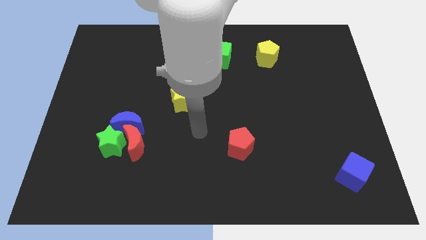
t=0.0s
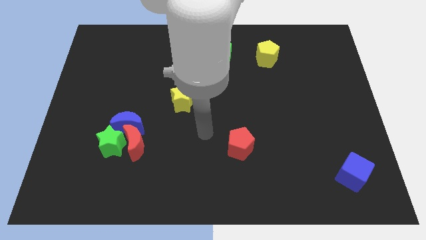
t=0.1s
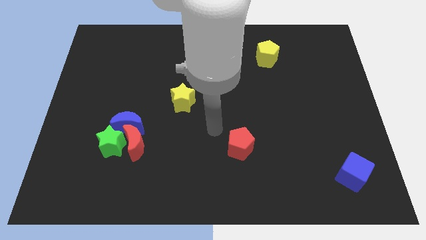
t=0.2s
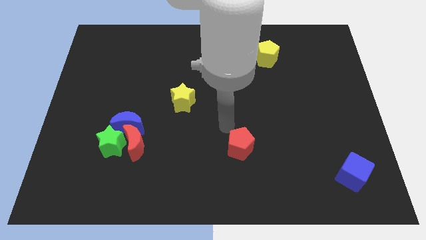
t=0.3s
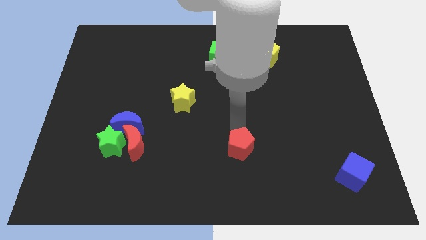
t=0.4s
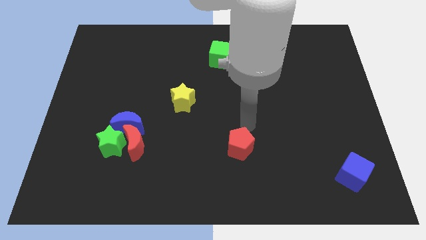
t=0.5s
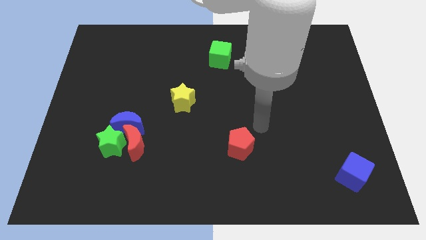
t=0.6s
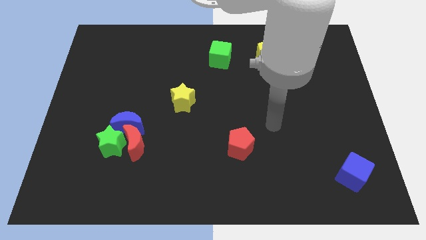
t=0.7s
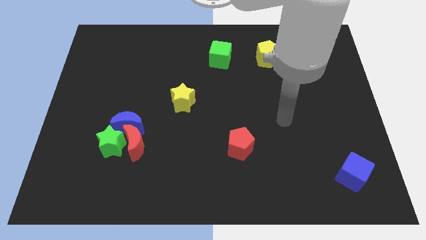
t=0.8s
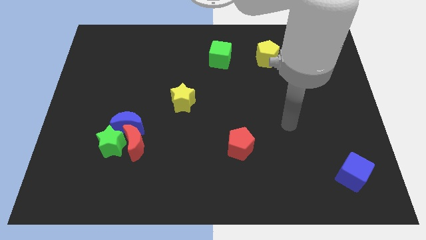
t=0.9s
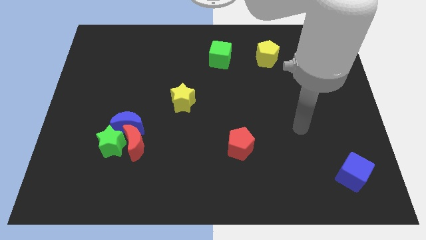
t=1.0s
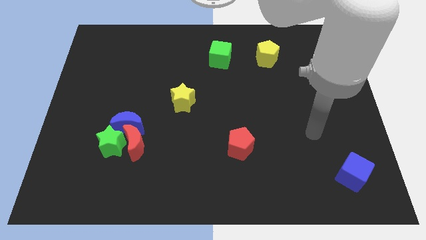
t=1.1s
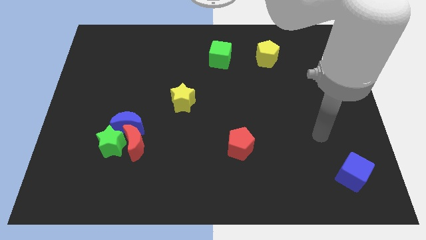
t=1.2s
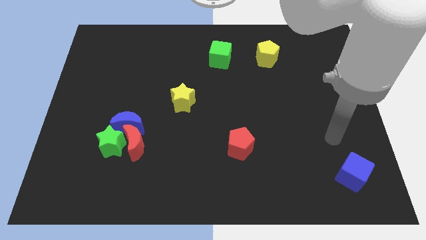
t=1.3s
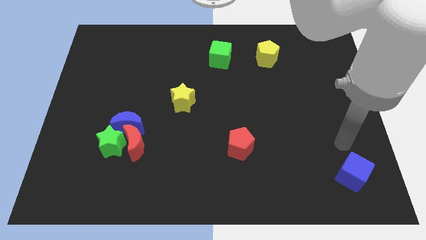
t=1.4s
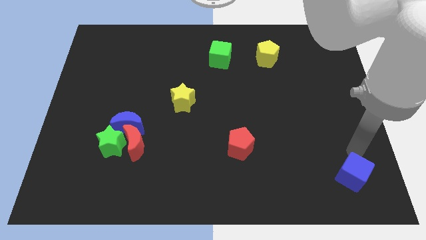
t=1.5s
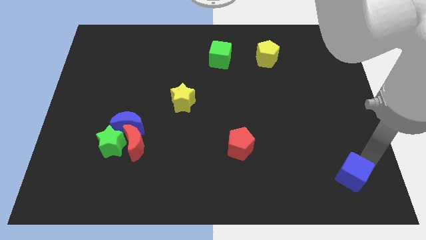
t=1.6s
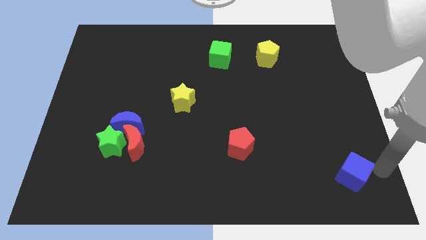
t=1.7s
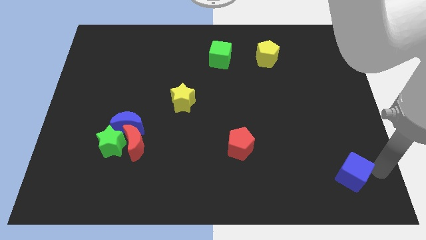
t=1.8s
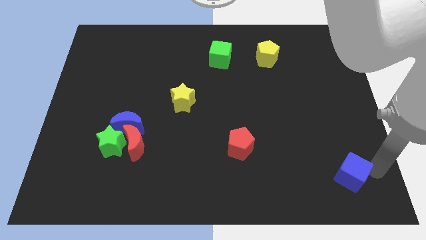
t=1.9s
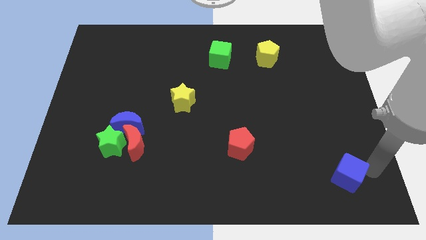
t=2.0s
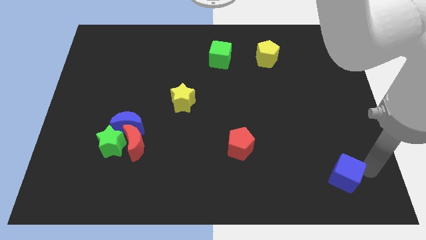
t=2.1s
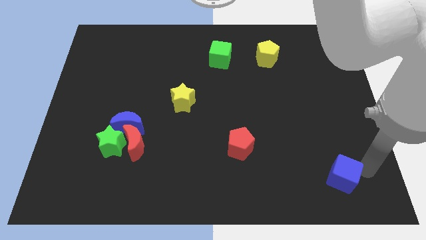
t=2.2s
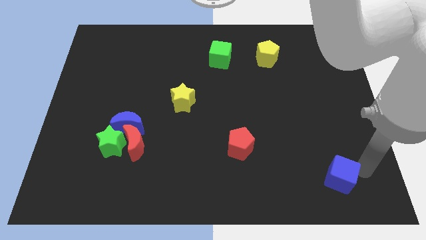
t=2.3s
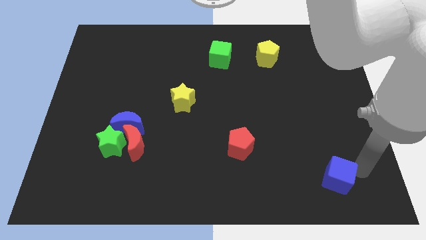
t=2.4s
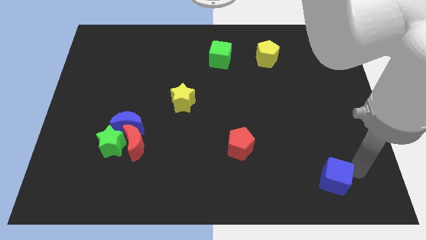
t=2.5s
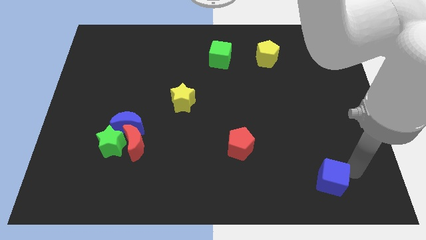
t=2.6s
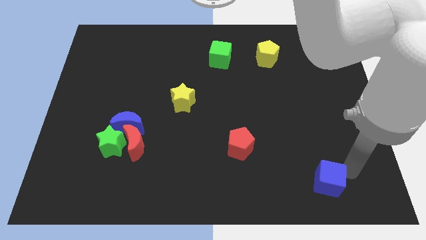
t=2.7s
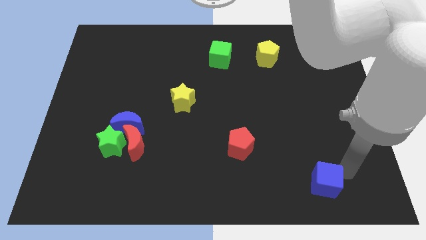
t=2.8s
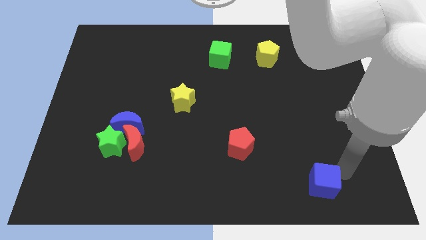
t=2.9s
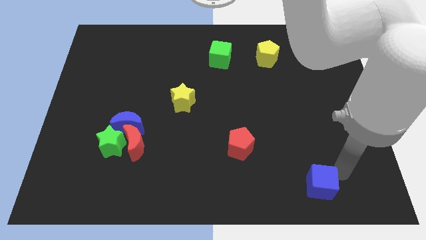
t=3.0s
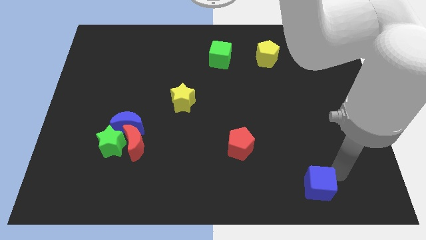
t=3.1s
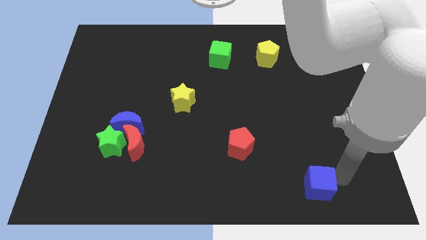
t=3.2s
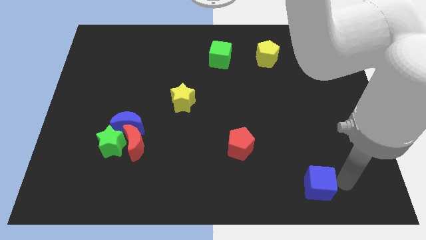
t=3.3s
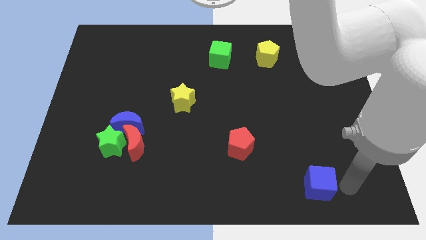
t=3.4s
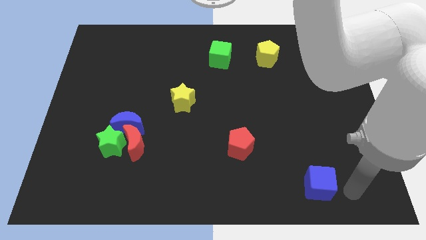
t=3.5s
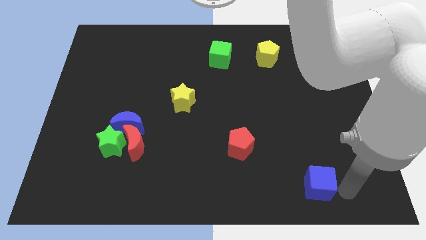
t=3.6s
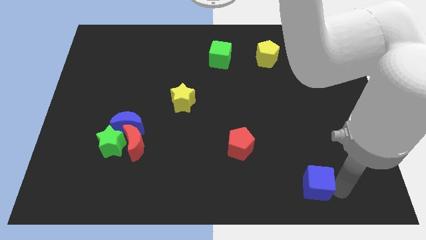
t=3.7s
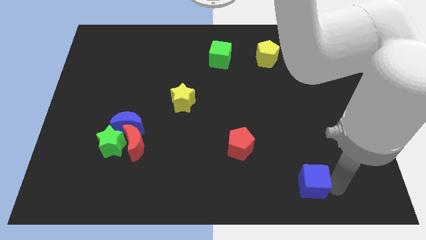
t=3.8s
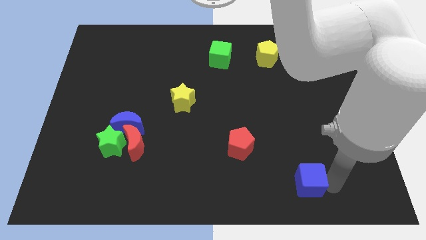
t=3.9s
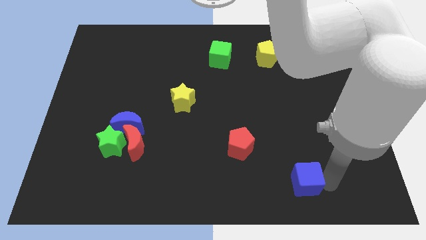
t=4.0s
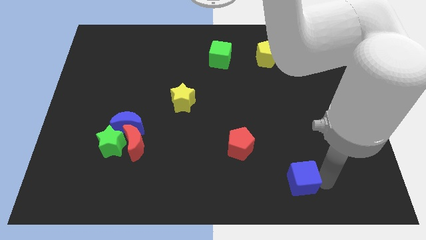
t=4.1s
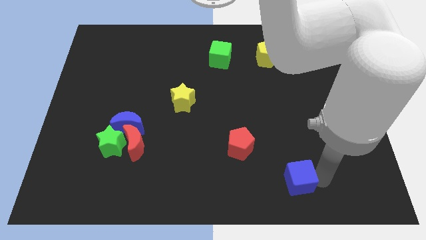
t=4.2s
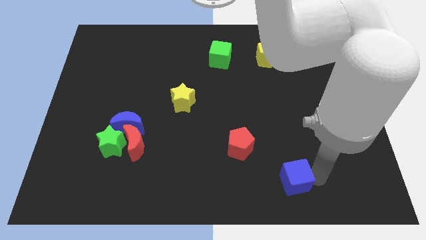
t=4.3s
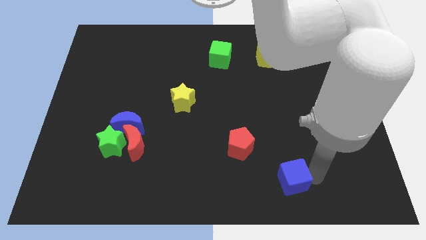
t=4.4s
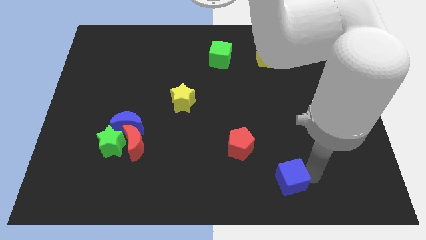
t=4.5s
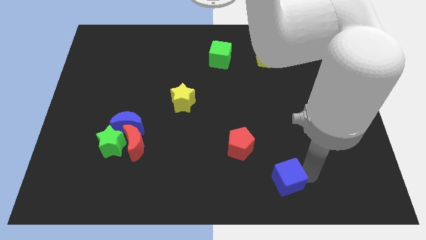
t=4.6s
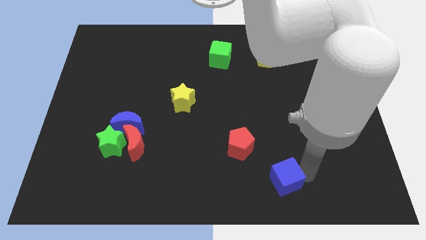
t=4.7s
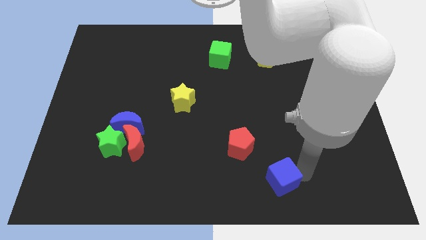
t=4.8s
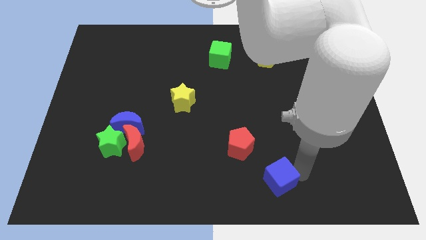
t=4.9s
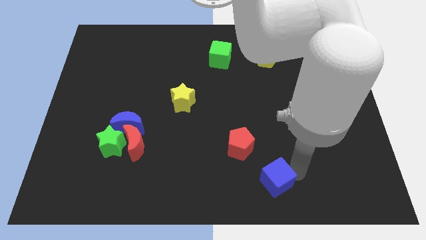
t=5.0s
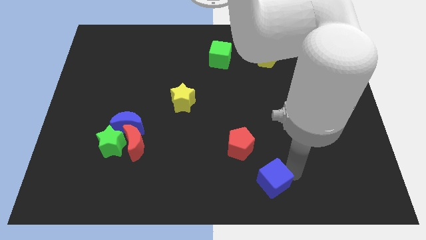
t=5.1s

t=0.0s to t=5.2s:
move the blue cube to the bottom

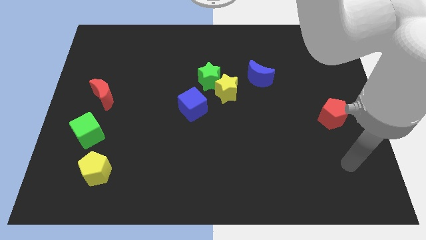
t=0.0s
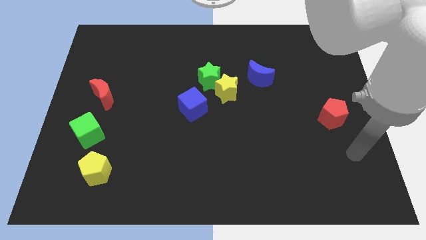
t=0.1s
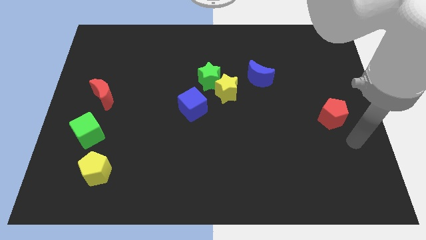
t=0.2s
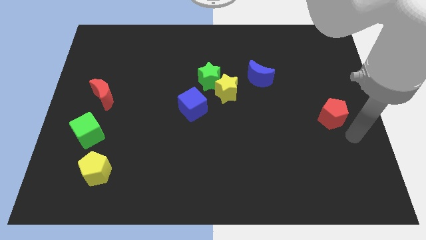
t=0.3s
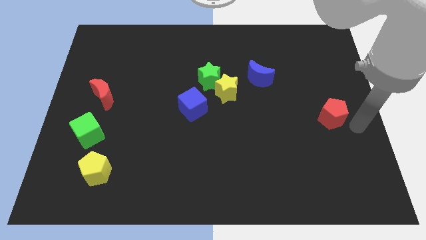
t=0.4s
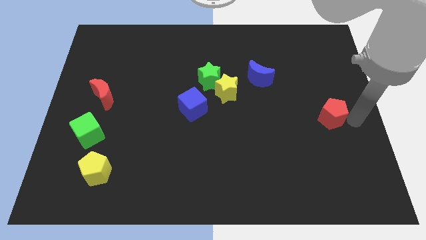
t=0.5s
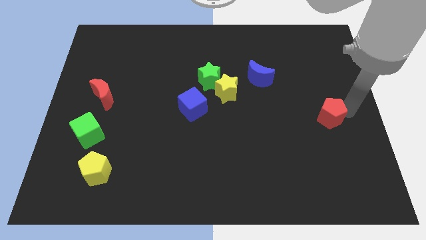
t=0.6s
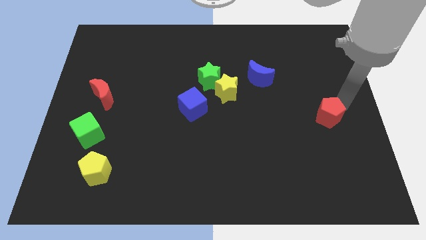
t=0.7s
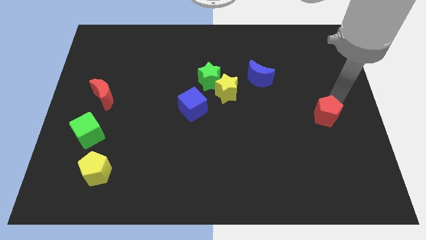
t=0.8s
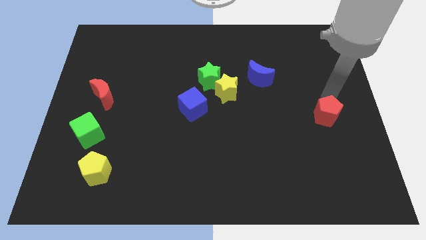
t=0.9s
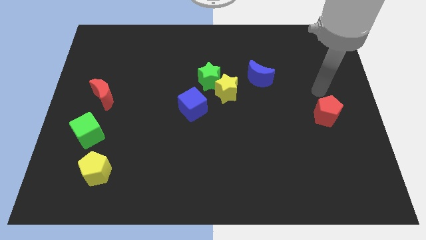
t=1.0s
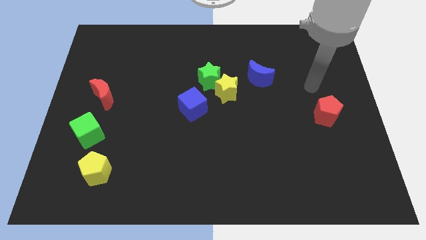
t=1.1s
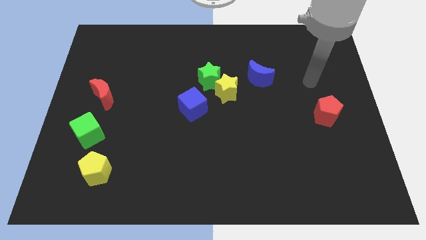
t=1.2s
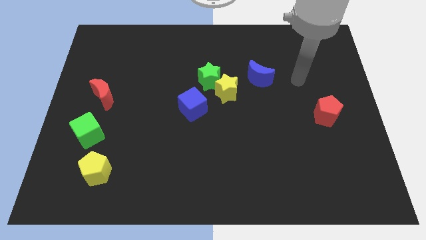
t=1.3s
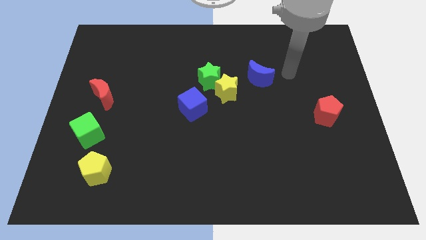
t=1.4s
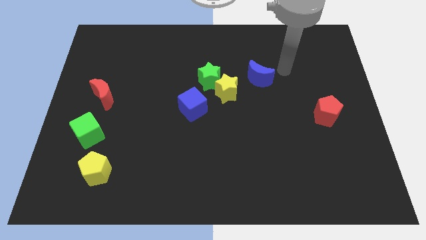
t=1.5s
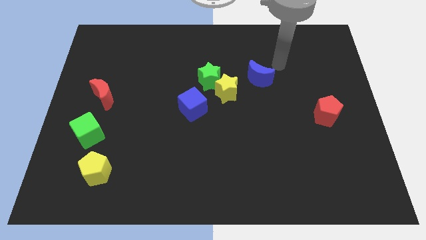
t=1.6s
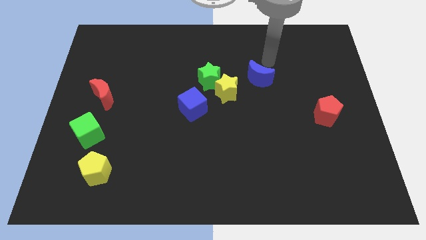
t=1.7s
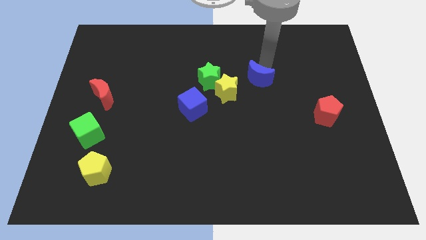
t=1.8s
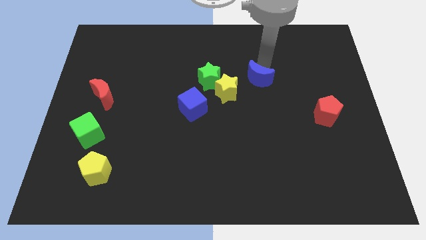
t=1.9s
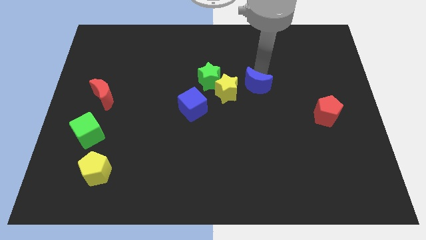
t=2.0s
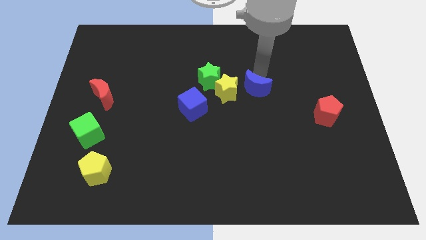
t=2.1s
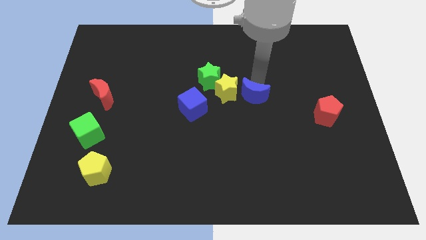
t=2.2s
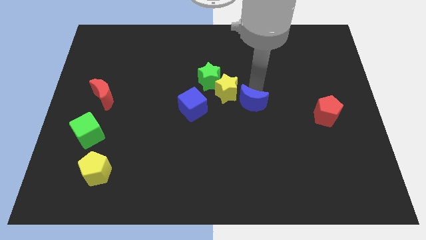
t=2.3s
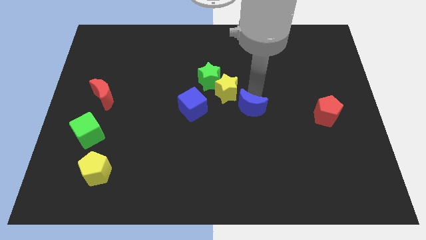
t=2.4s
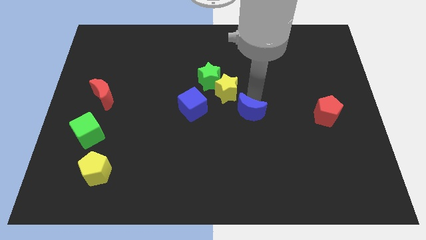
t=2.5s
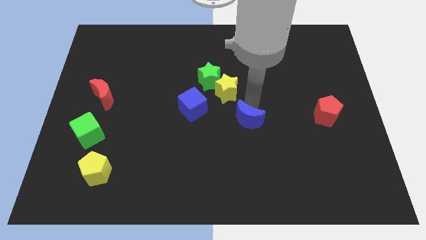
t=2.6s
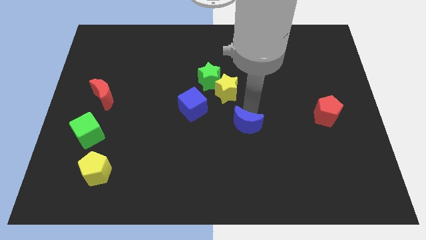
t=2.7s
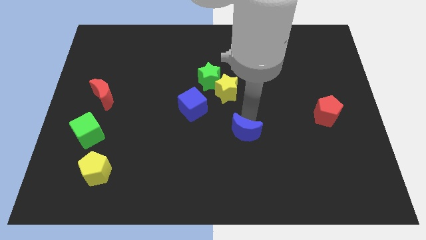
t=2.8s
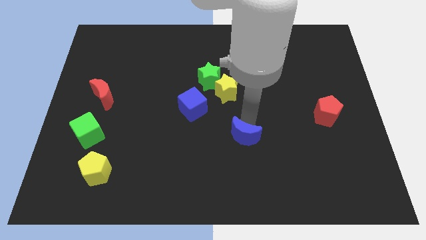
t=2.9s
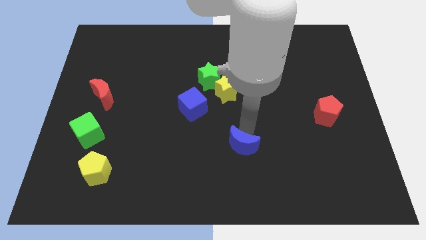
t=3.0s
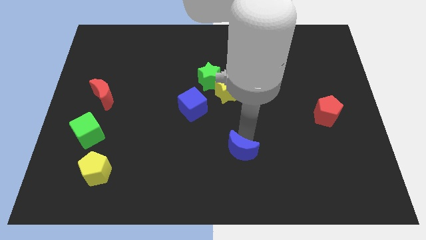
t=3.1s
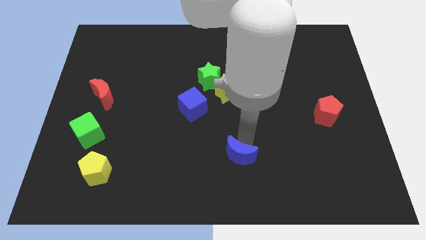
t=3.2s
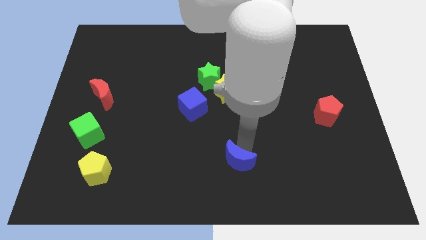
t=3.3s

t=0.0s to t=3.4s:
slide the blue moon to the bottom side
